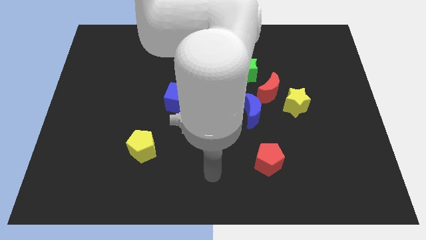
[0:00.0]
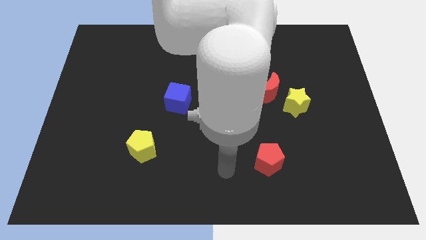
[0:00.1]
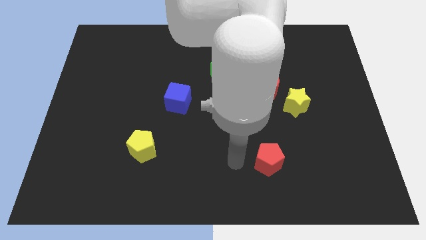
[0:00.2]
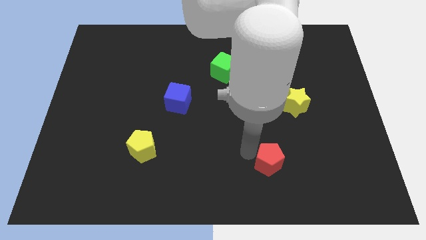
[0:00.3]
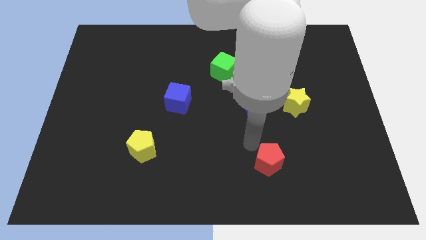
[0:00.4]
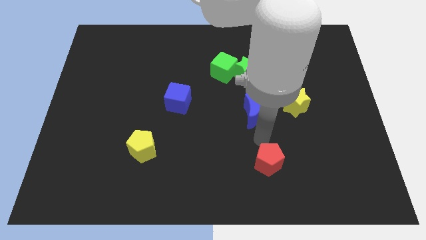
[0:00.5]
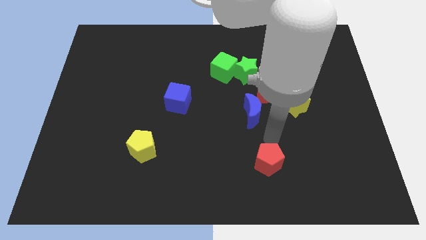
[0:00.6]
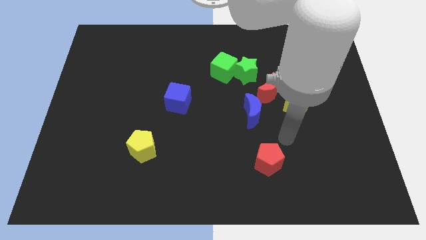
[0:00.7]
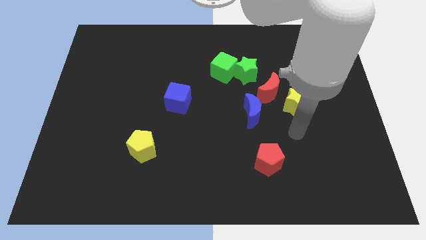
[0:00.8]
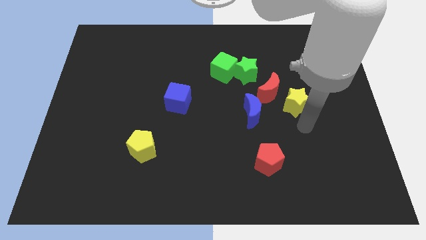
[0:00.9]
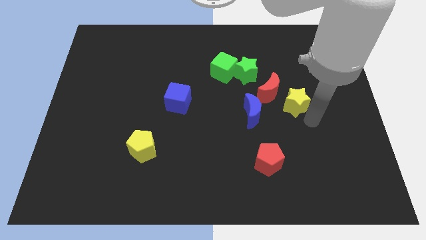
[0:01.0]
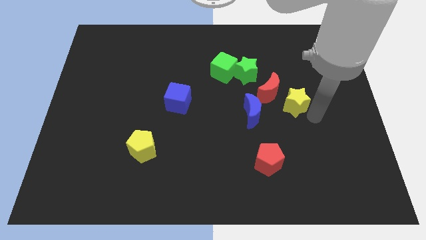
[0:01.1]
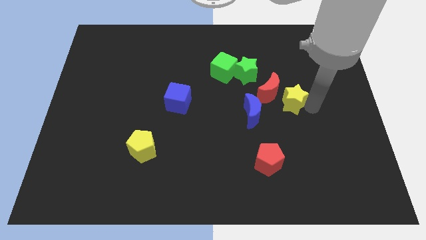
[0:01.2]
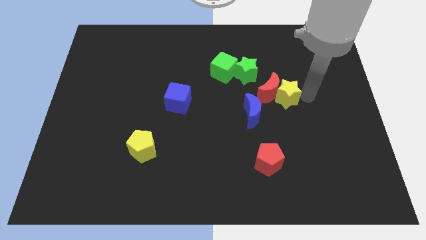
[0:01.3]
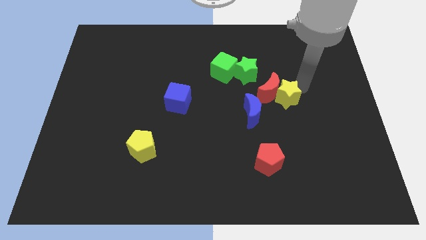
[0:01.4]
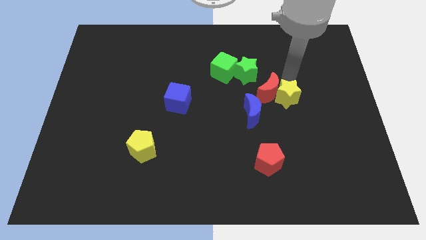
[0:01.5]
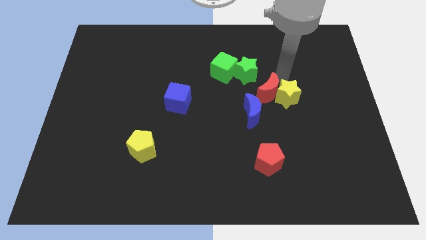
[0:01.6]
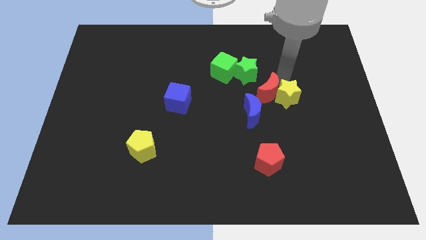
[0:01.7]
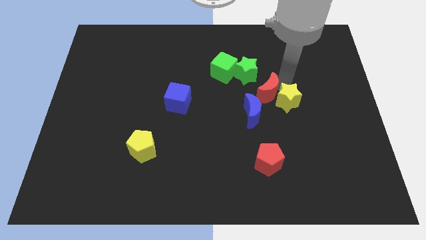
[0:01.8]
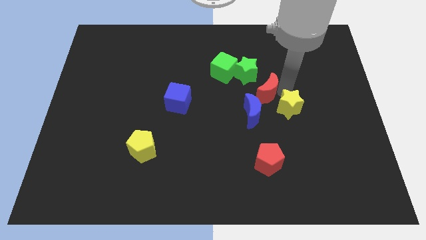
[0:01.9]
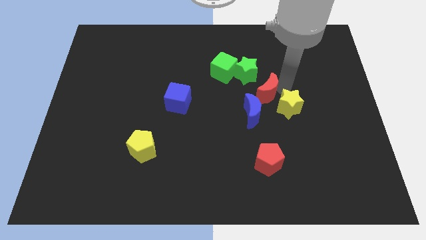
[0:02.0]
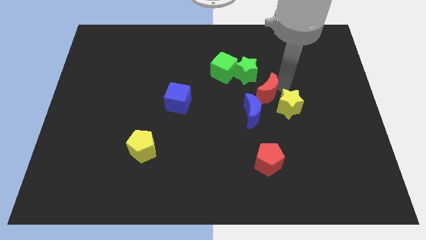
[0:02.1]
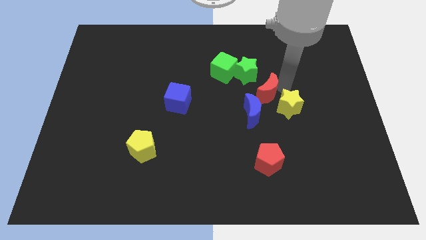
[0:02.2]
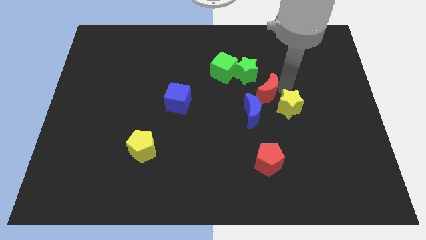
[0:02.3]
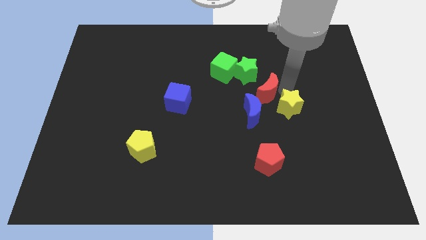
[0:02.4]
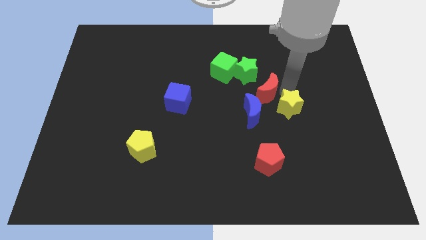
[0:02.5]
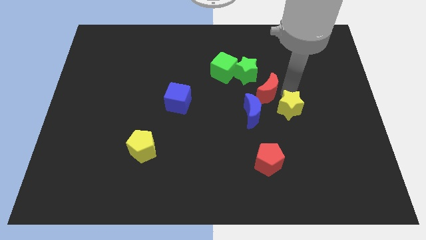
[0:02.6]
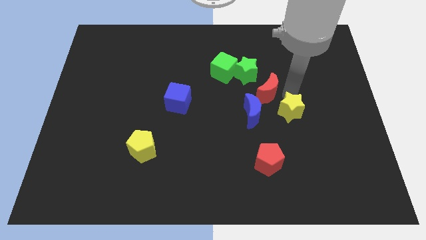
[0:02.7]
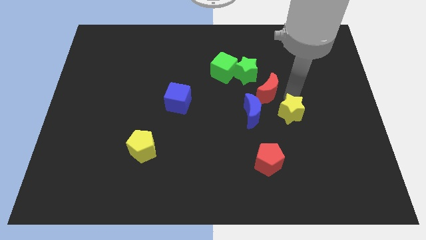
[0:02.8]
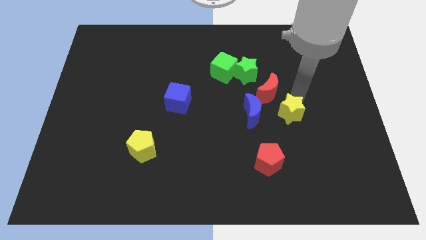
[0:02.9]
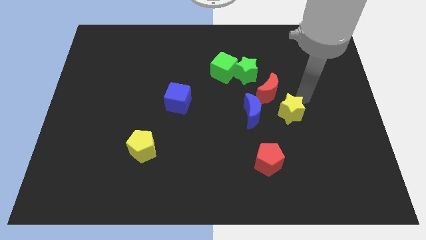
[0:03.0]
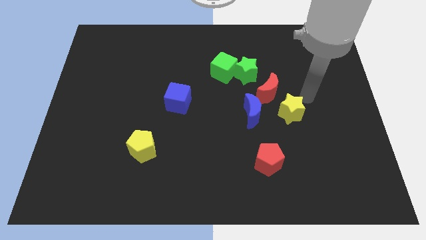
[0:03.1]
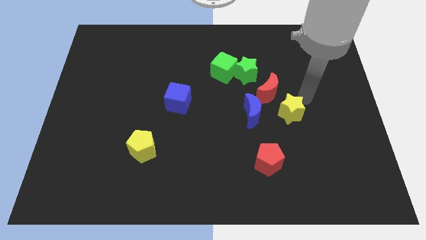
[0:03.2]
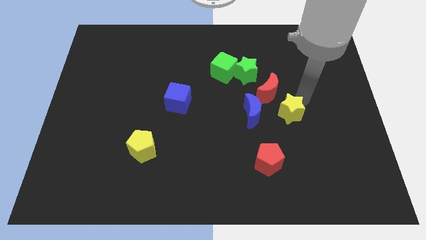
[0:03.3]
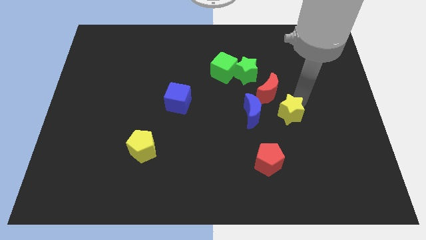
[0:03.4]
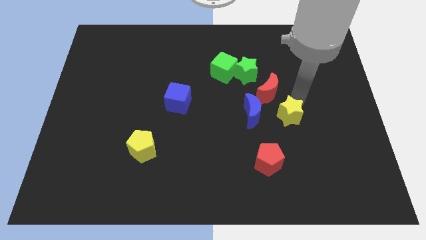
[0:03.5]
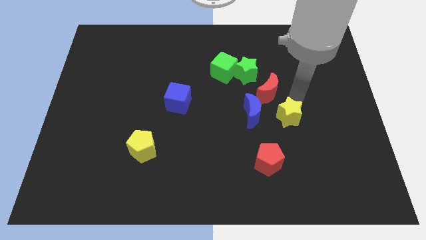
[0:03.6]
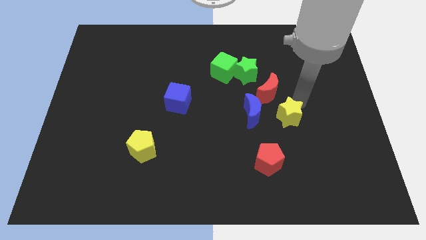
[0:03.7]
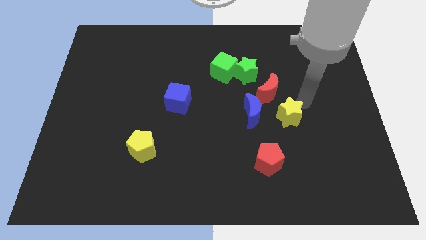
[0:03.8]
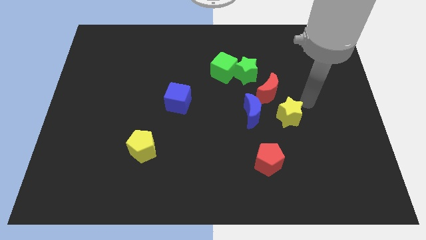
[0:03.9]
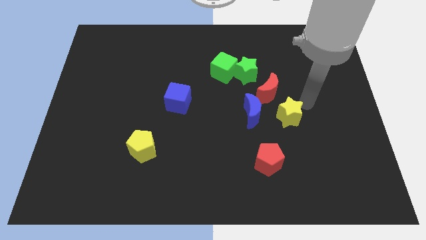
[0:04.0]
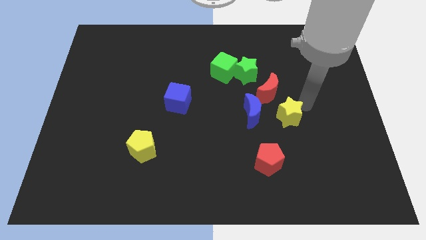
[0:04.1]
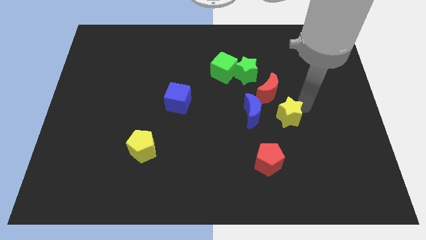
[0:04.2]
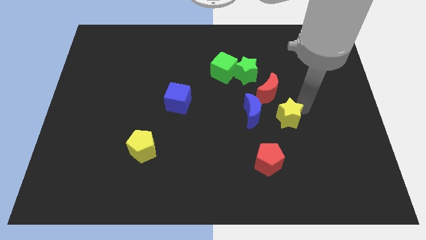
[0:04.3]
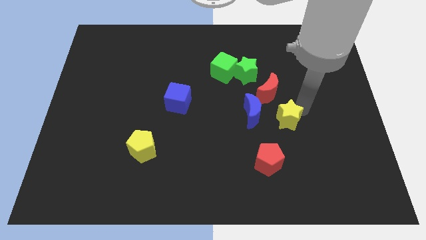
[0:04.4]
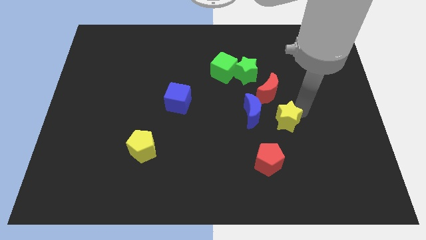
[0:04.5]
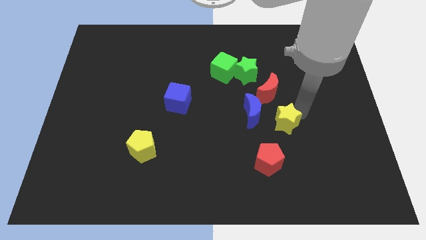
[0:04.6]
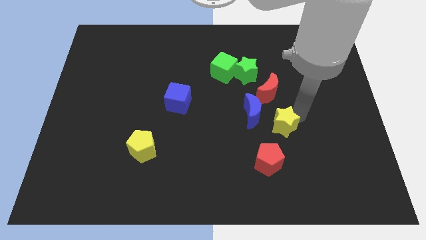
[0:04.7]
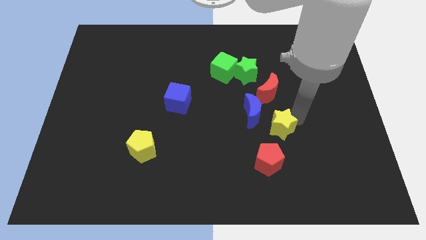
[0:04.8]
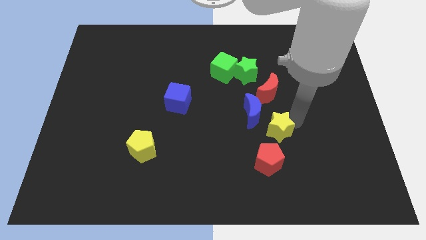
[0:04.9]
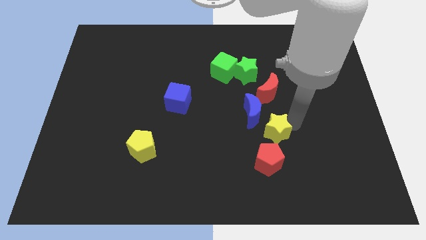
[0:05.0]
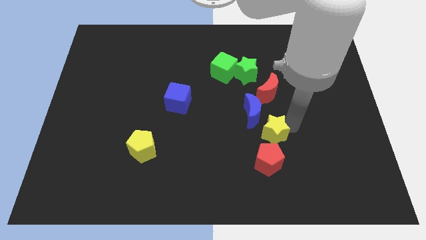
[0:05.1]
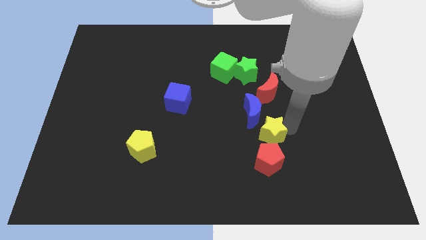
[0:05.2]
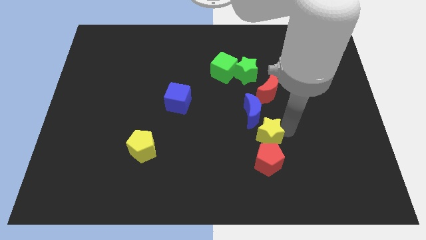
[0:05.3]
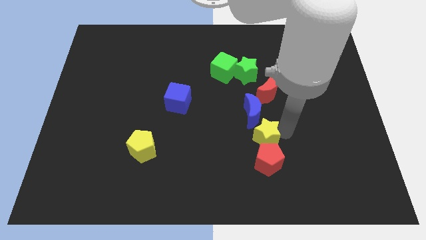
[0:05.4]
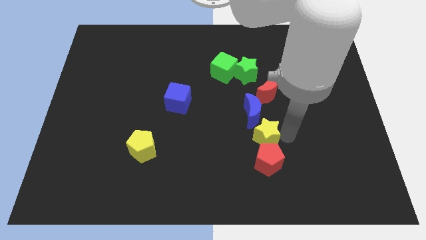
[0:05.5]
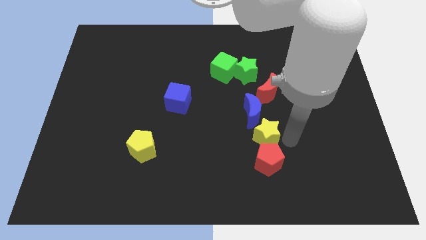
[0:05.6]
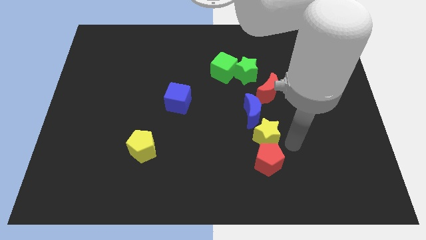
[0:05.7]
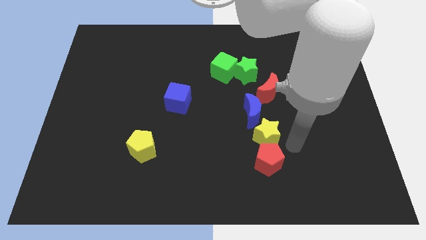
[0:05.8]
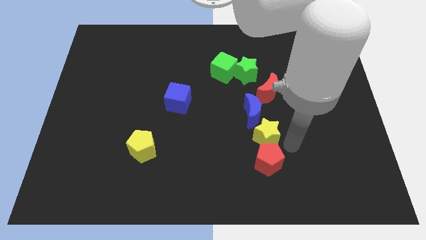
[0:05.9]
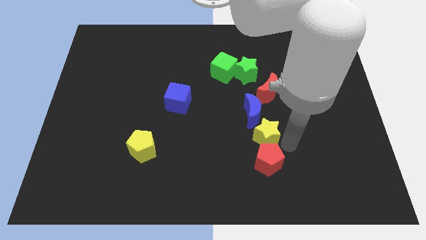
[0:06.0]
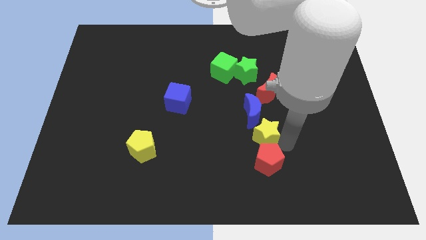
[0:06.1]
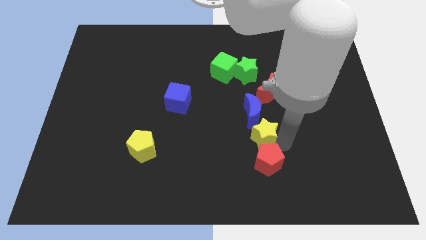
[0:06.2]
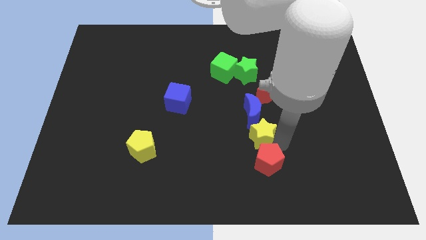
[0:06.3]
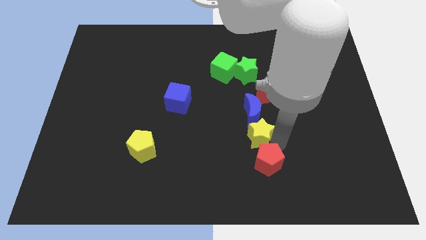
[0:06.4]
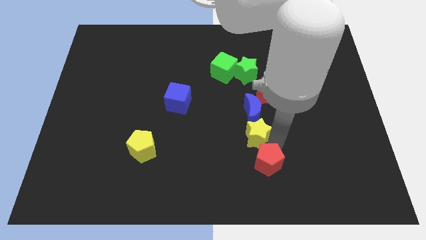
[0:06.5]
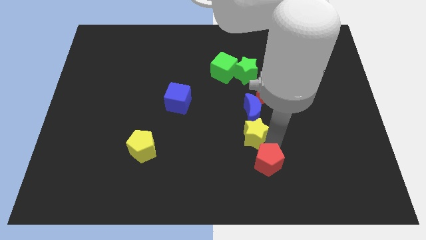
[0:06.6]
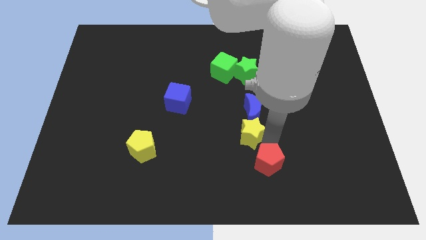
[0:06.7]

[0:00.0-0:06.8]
move the yellow star to the left a little bit

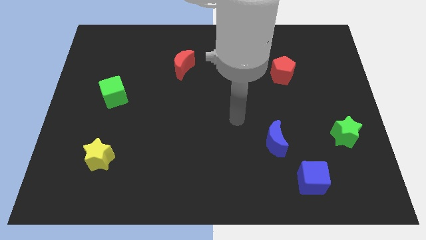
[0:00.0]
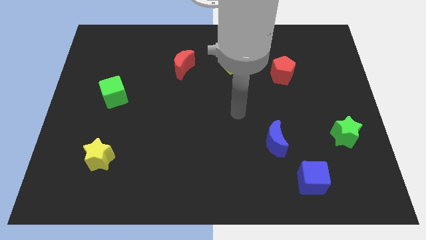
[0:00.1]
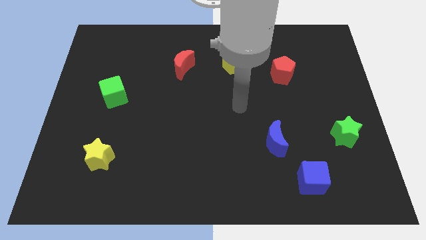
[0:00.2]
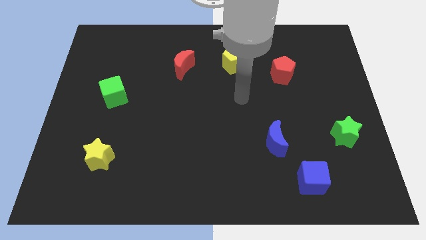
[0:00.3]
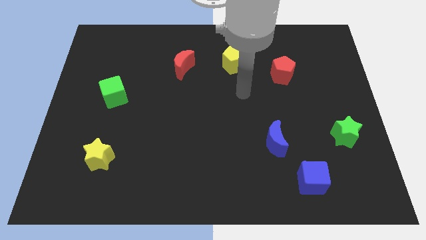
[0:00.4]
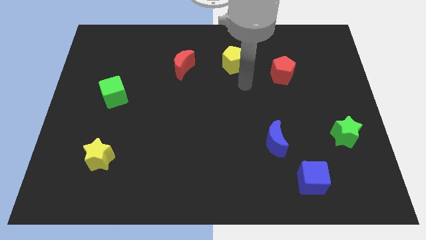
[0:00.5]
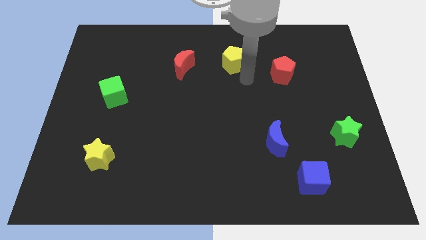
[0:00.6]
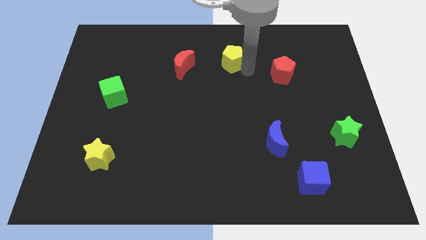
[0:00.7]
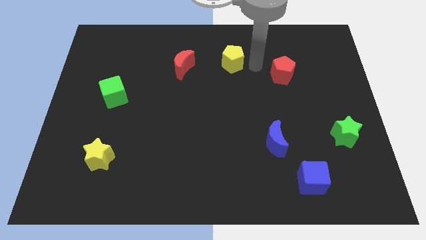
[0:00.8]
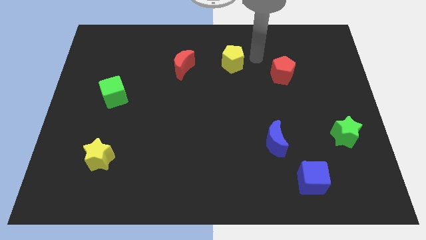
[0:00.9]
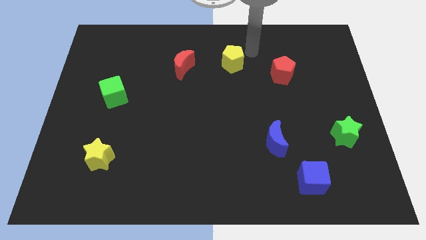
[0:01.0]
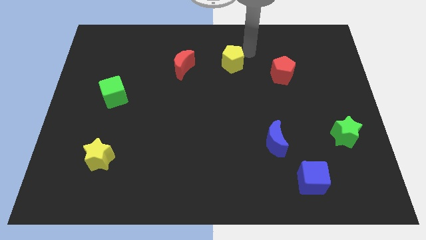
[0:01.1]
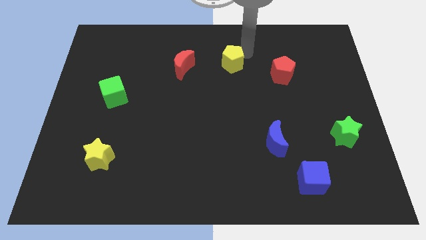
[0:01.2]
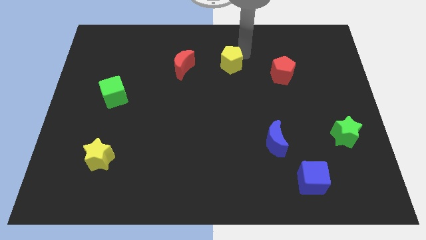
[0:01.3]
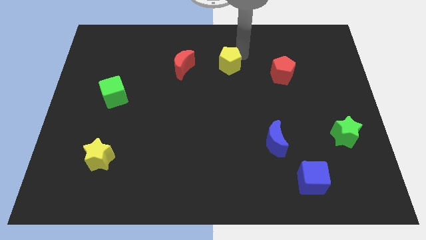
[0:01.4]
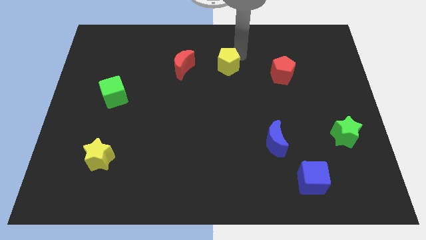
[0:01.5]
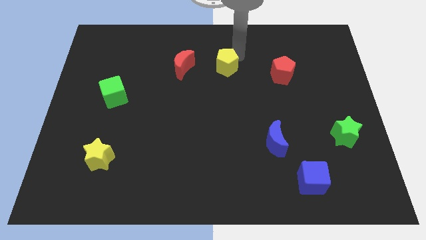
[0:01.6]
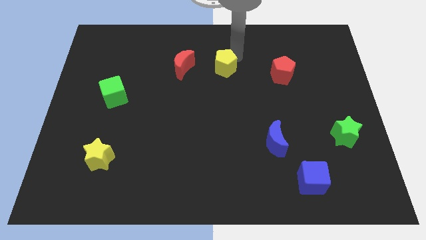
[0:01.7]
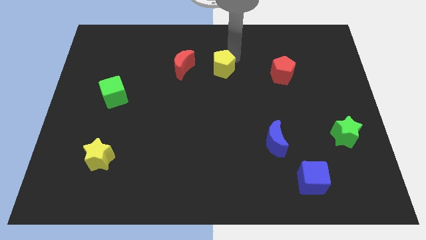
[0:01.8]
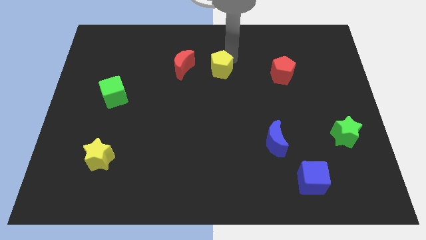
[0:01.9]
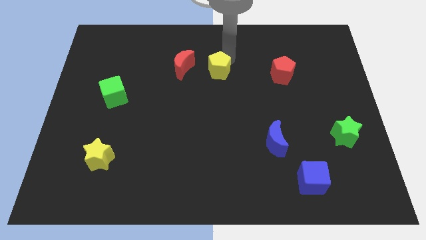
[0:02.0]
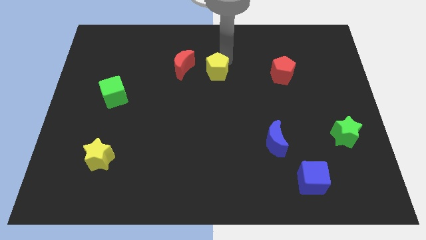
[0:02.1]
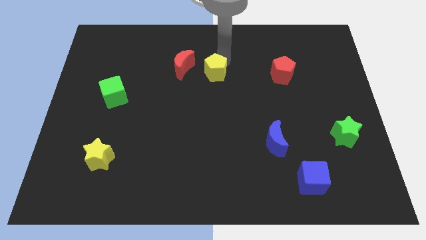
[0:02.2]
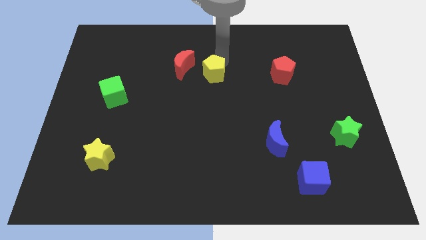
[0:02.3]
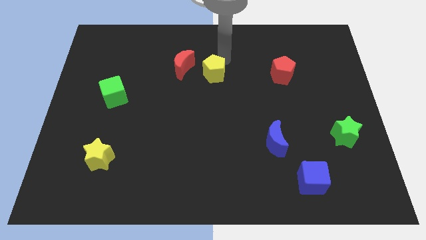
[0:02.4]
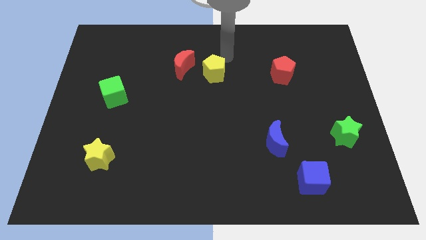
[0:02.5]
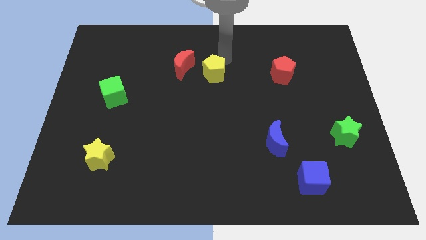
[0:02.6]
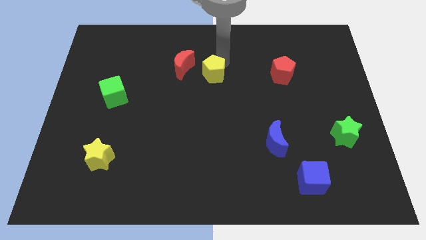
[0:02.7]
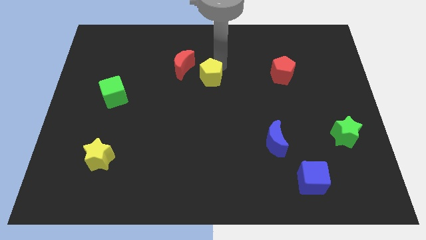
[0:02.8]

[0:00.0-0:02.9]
move the yellow pentagon somewhat down and left diagonally
